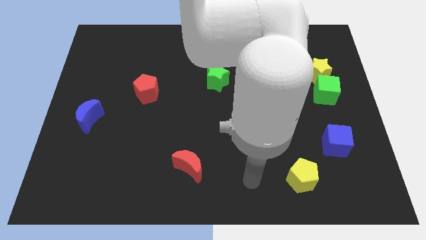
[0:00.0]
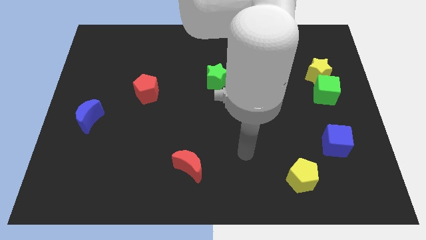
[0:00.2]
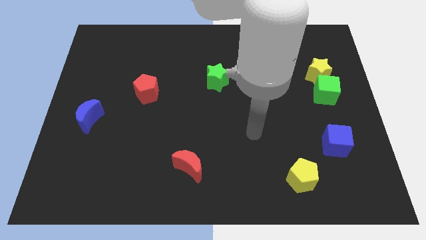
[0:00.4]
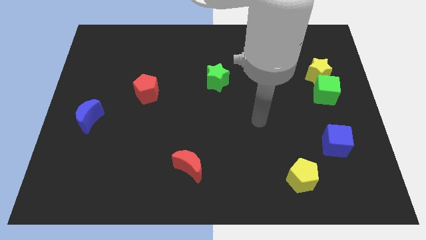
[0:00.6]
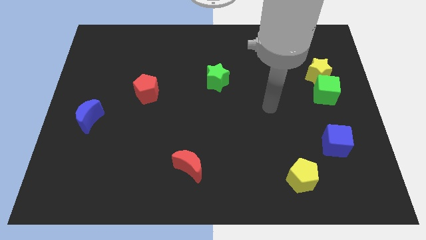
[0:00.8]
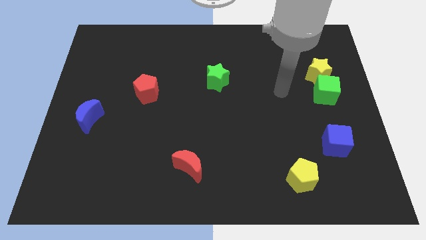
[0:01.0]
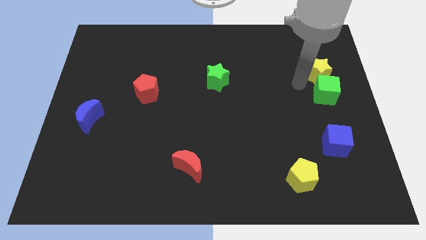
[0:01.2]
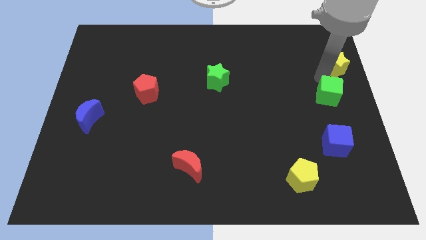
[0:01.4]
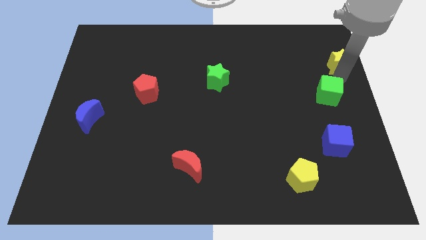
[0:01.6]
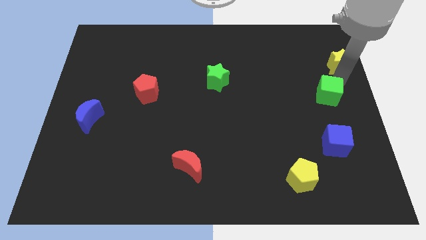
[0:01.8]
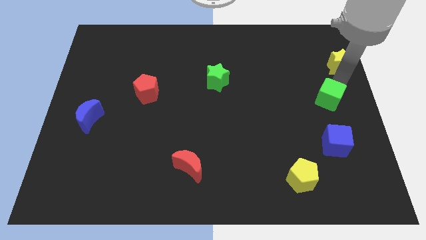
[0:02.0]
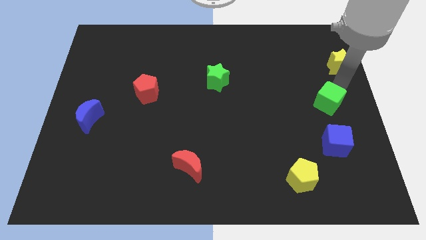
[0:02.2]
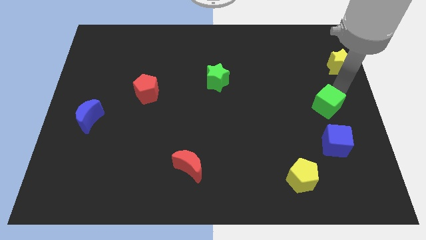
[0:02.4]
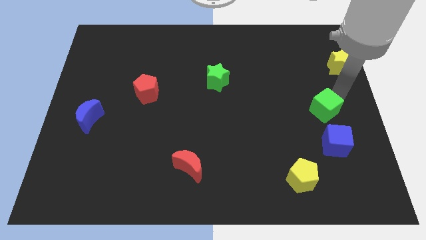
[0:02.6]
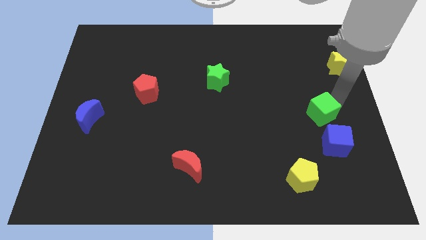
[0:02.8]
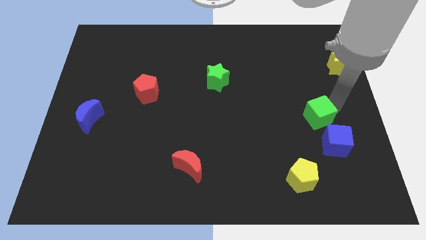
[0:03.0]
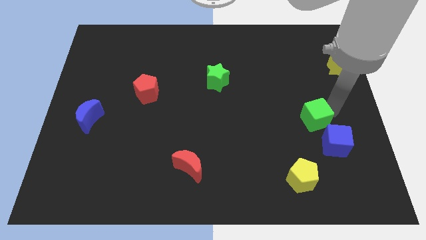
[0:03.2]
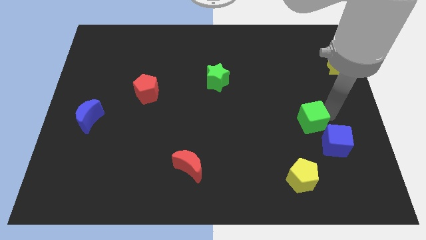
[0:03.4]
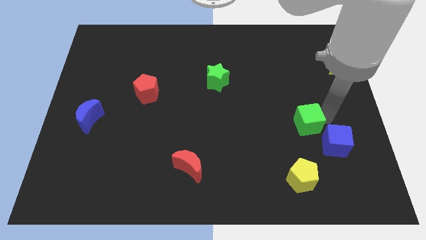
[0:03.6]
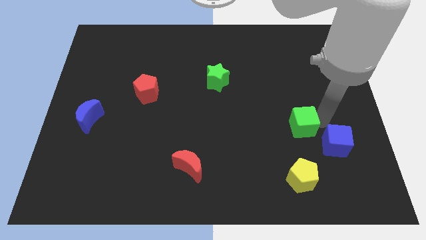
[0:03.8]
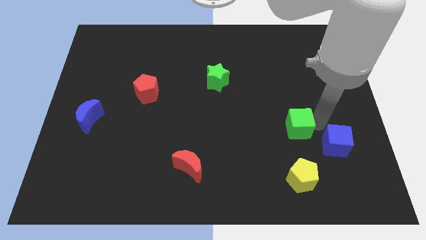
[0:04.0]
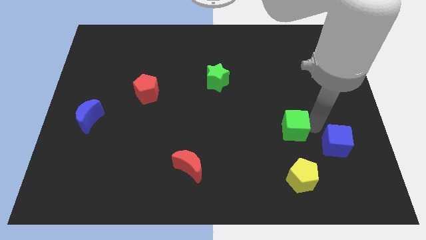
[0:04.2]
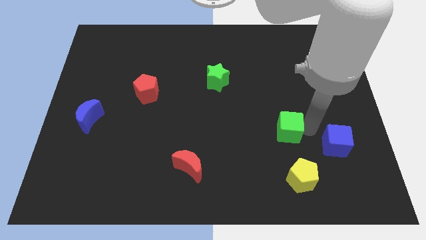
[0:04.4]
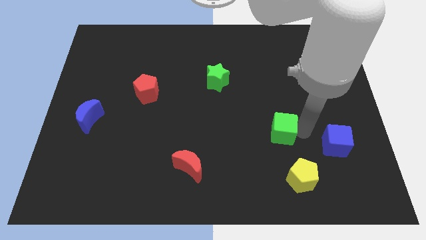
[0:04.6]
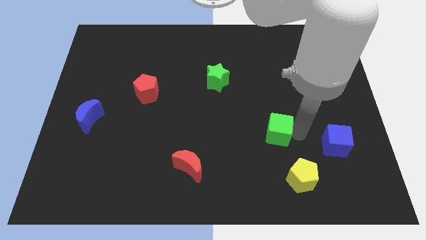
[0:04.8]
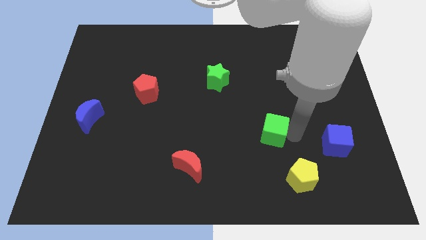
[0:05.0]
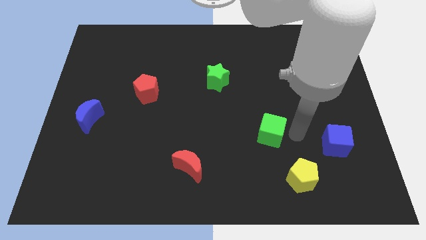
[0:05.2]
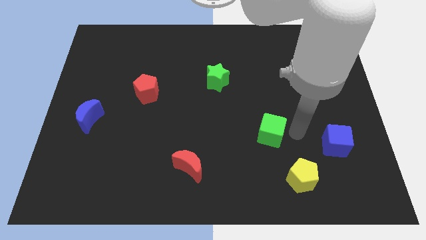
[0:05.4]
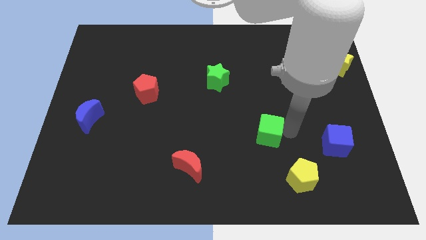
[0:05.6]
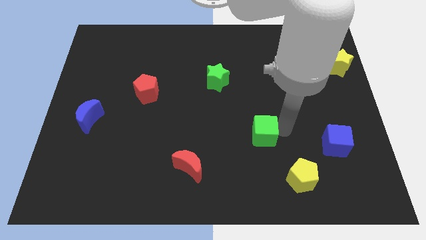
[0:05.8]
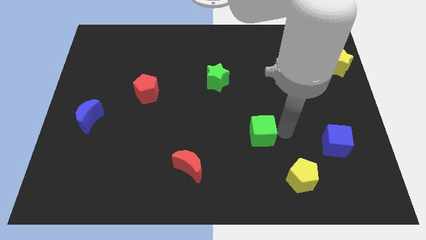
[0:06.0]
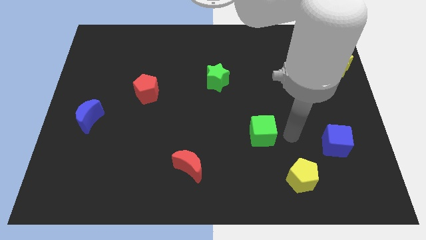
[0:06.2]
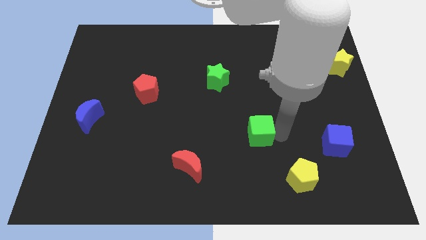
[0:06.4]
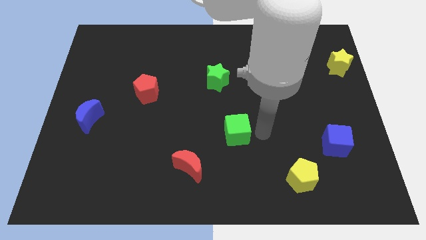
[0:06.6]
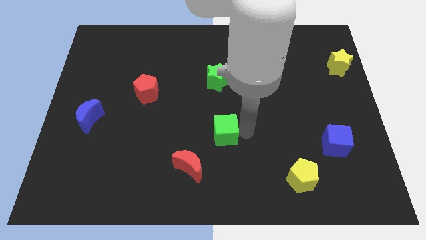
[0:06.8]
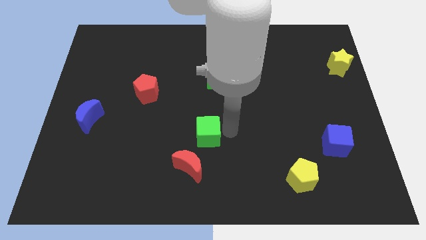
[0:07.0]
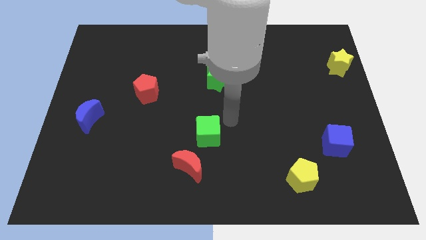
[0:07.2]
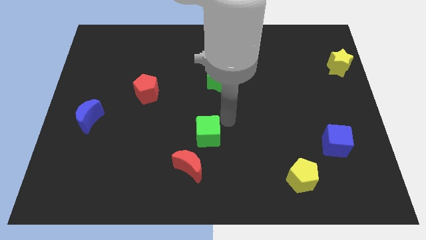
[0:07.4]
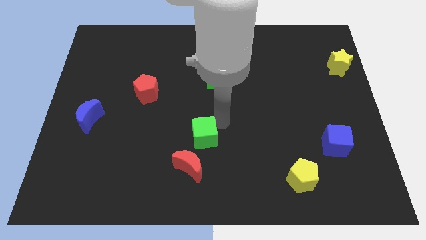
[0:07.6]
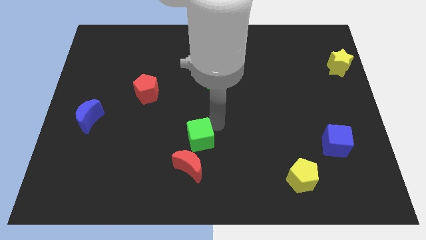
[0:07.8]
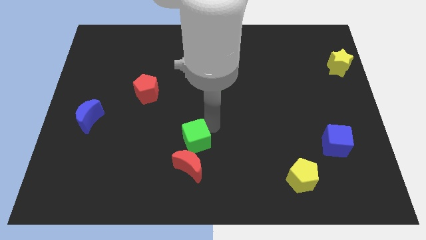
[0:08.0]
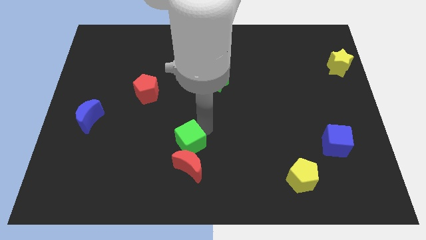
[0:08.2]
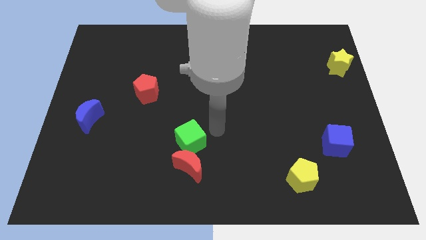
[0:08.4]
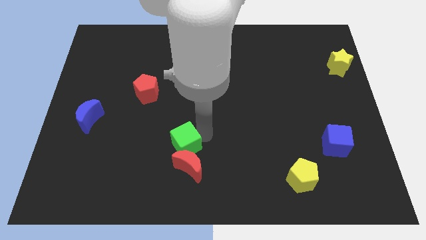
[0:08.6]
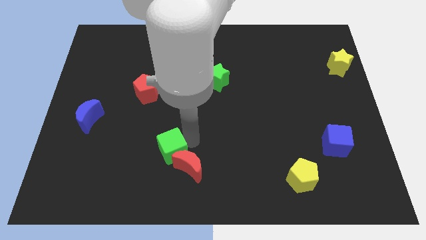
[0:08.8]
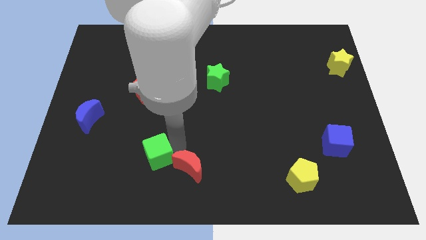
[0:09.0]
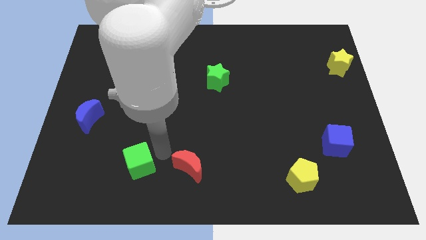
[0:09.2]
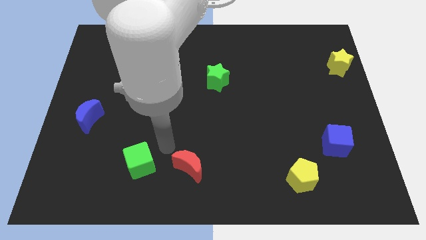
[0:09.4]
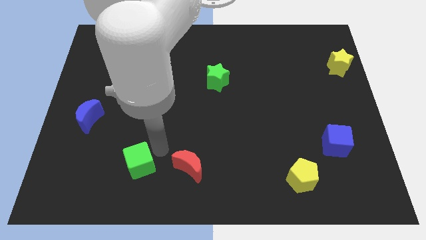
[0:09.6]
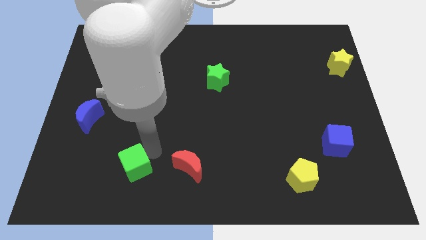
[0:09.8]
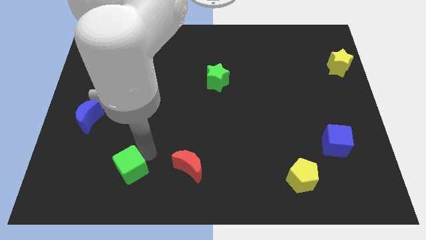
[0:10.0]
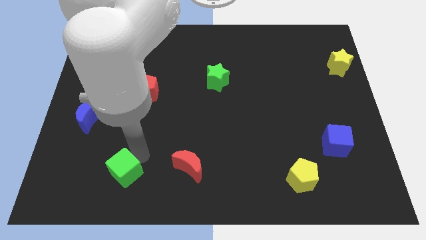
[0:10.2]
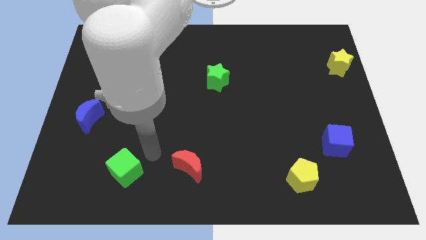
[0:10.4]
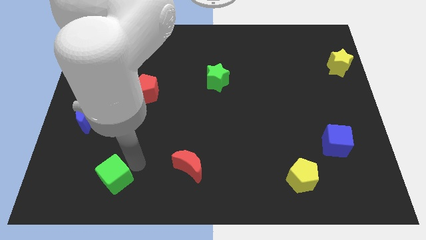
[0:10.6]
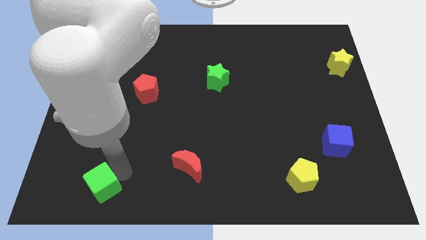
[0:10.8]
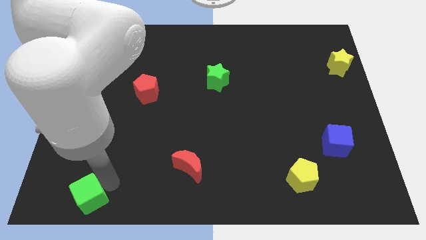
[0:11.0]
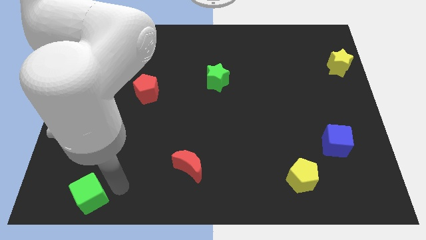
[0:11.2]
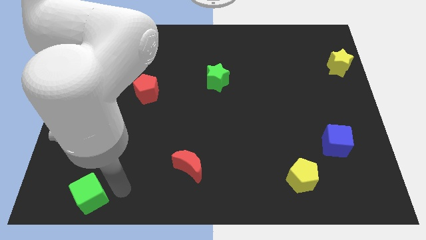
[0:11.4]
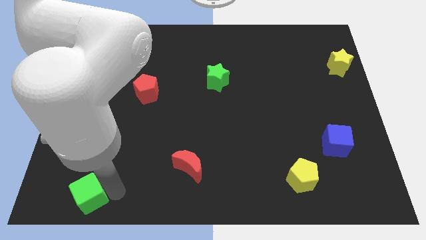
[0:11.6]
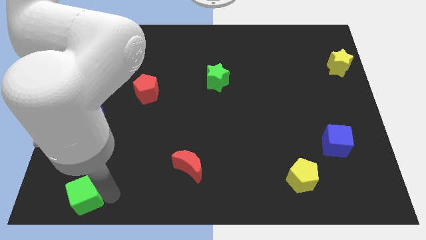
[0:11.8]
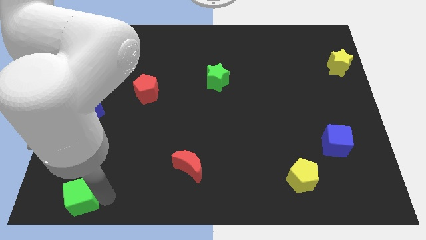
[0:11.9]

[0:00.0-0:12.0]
move the green cube to the lower left corner

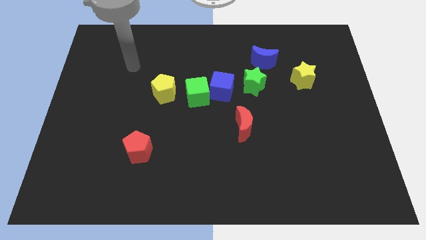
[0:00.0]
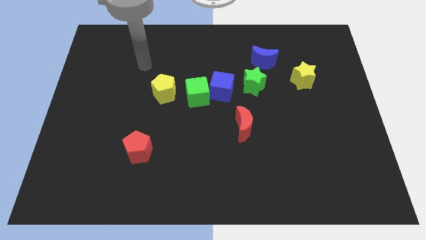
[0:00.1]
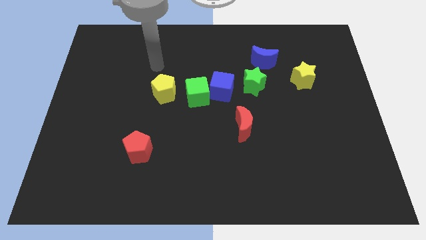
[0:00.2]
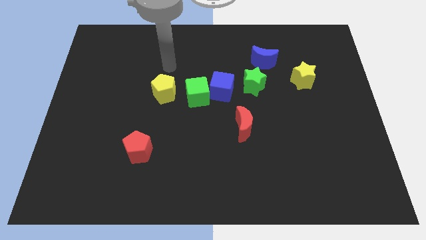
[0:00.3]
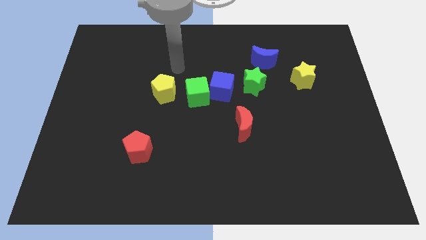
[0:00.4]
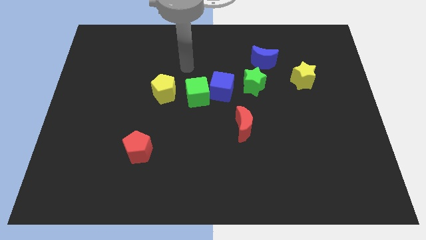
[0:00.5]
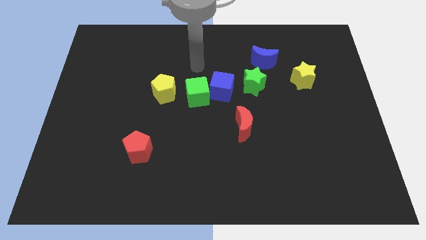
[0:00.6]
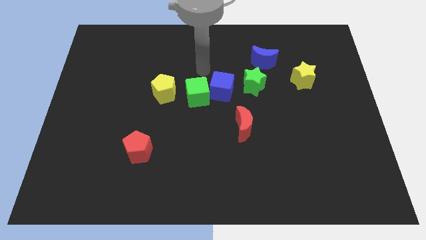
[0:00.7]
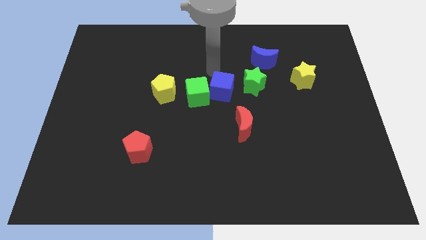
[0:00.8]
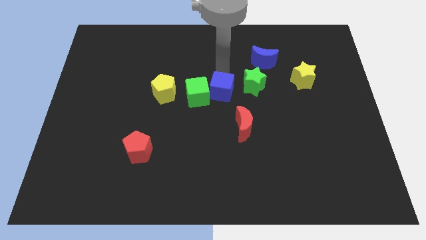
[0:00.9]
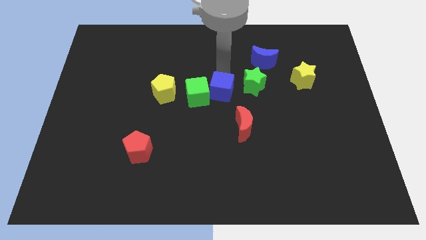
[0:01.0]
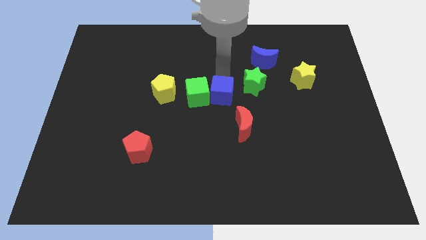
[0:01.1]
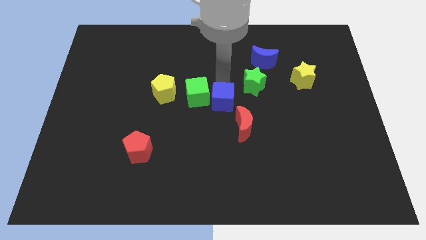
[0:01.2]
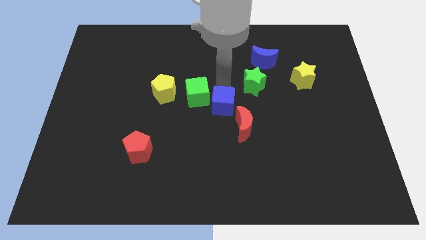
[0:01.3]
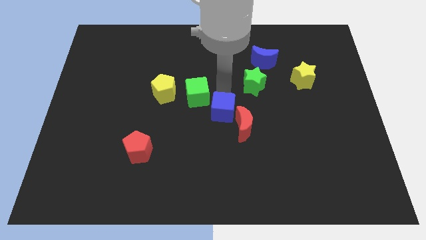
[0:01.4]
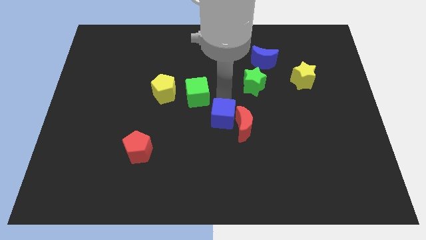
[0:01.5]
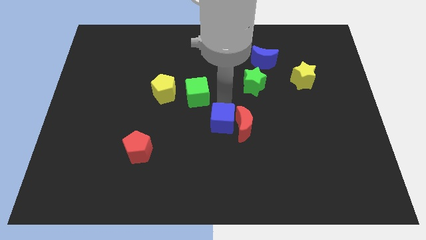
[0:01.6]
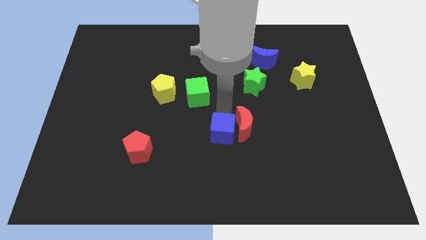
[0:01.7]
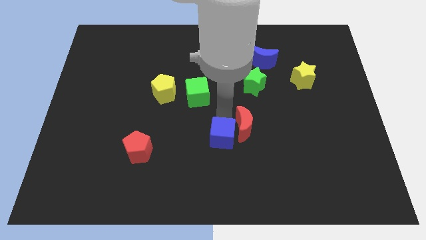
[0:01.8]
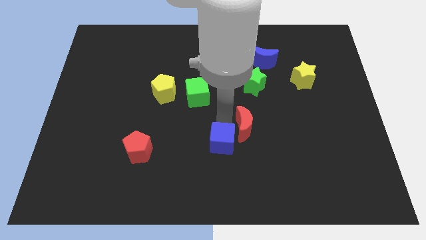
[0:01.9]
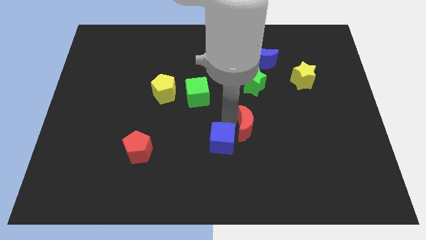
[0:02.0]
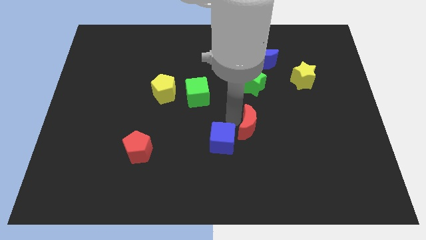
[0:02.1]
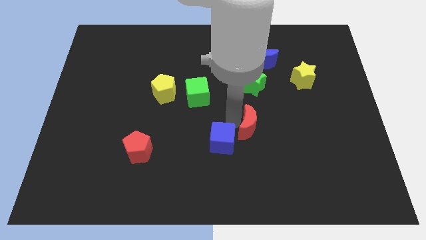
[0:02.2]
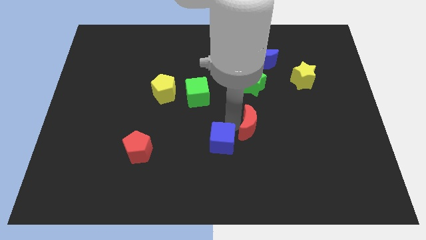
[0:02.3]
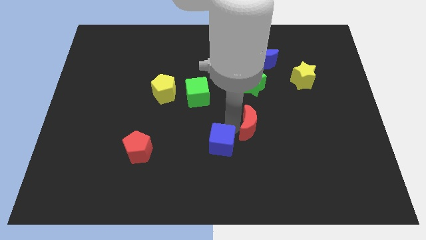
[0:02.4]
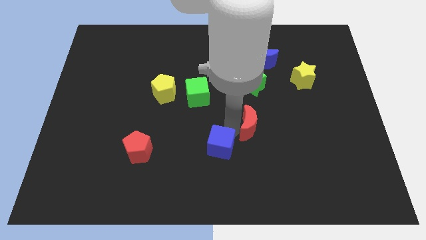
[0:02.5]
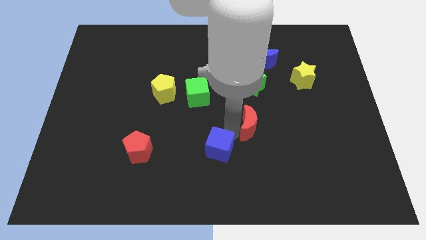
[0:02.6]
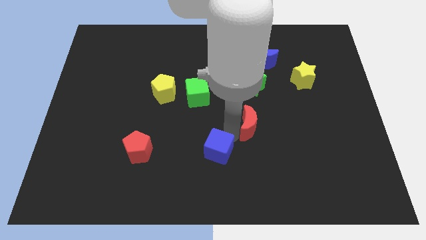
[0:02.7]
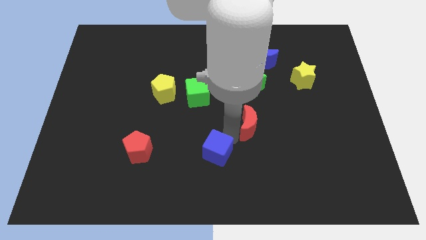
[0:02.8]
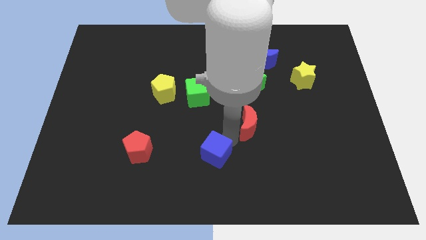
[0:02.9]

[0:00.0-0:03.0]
push the blue cube to the bottom side
